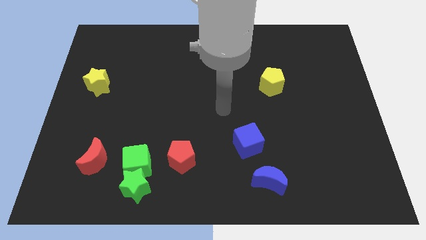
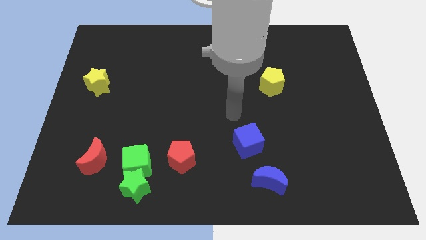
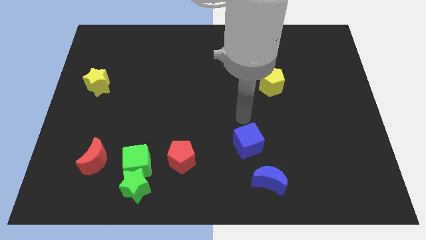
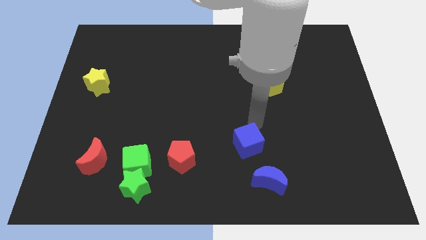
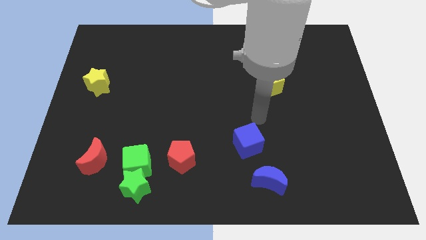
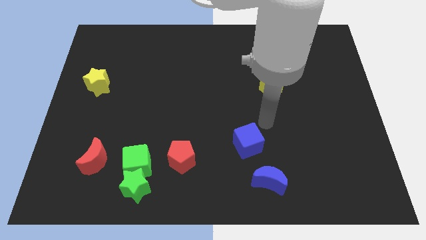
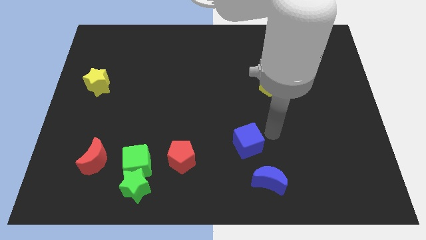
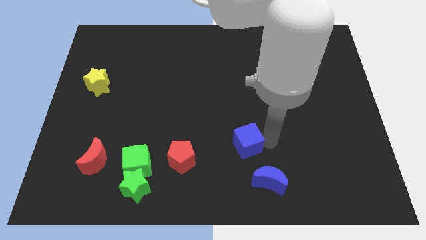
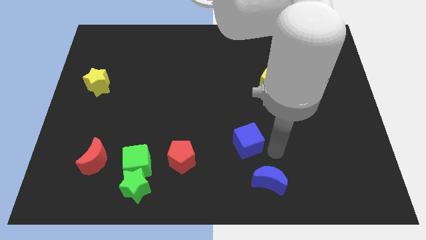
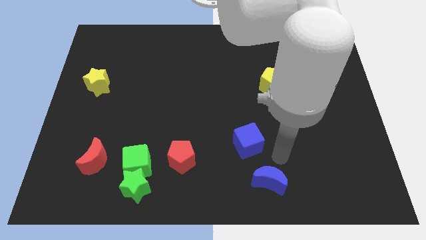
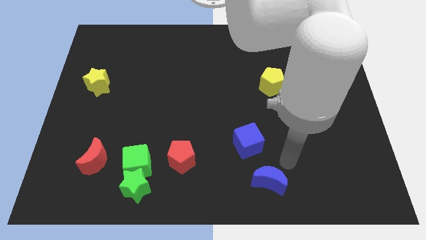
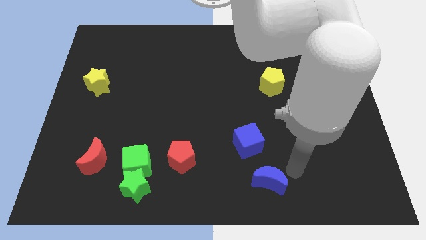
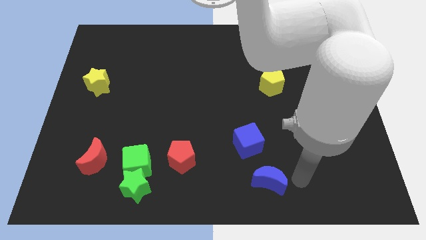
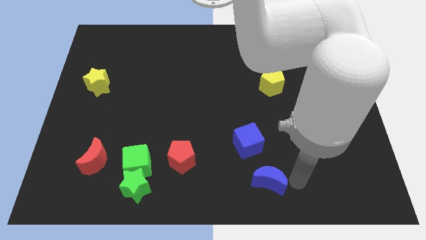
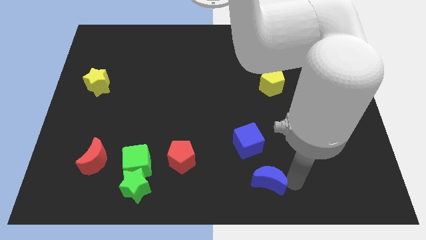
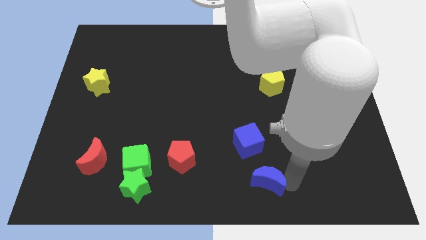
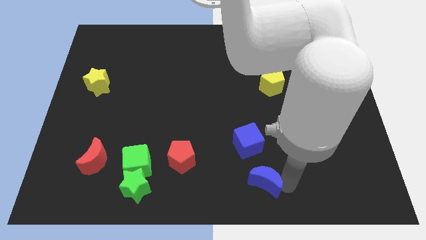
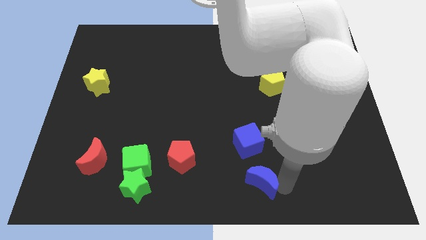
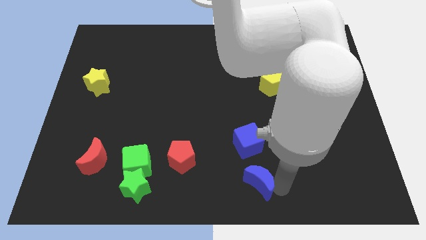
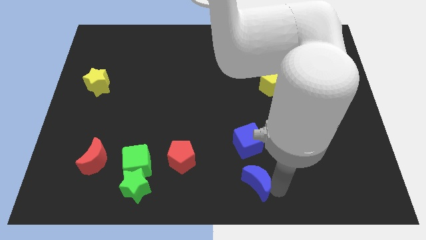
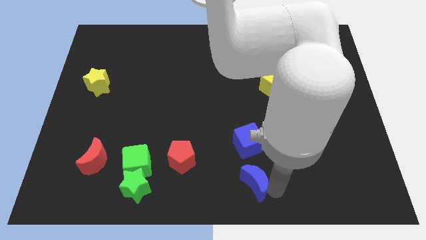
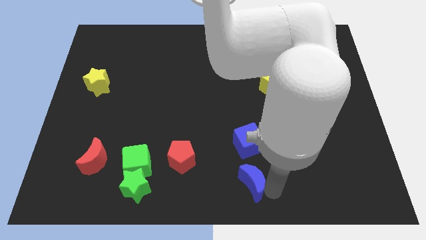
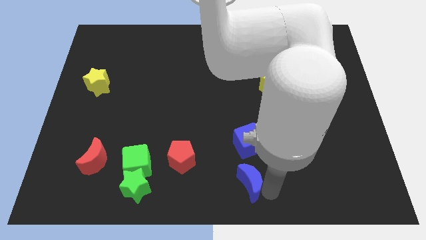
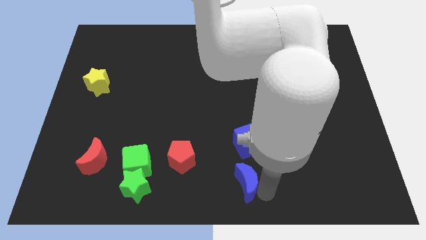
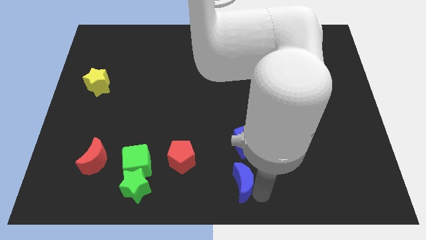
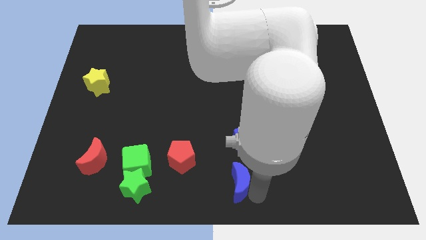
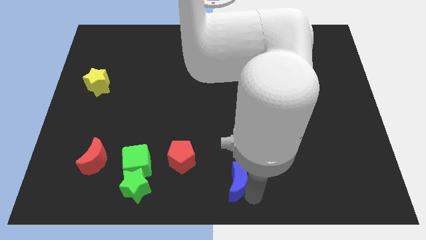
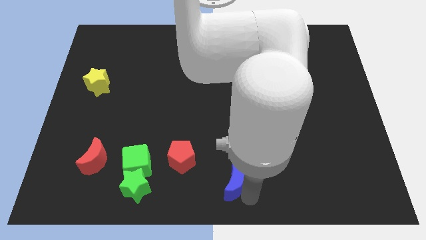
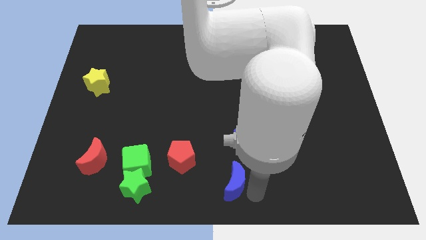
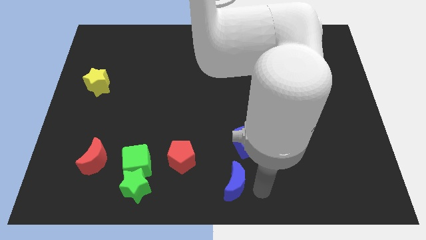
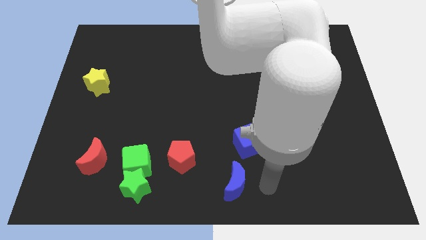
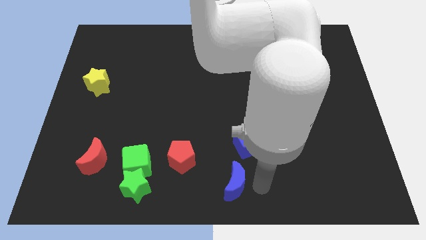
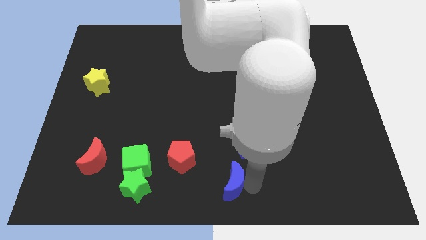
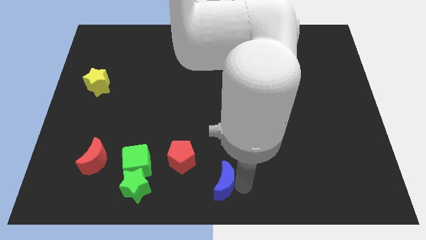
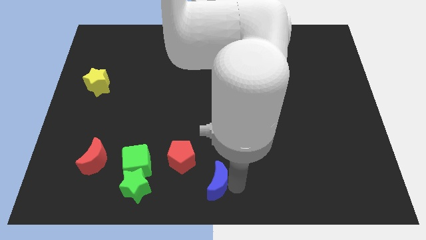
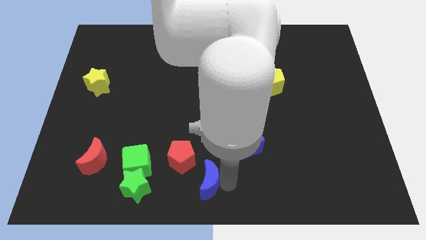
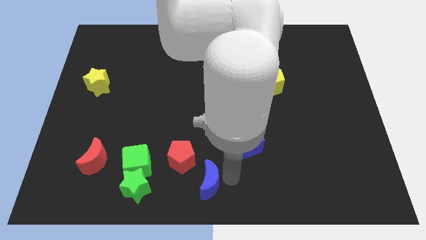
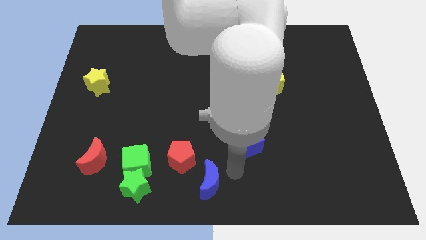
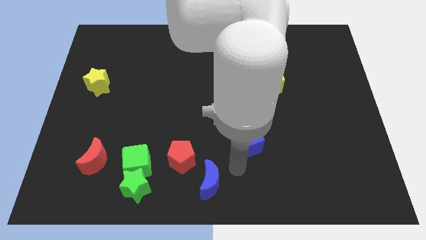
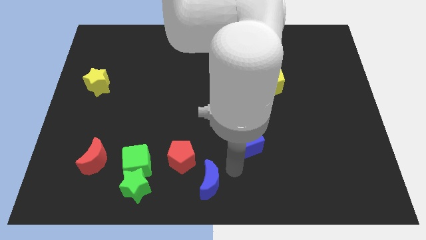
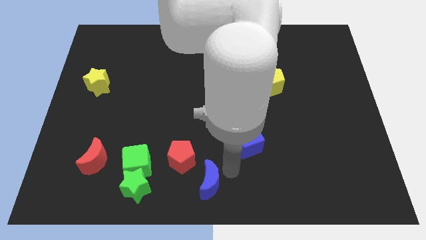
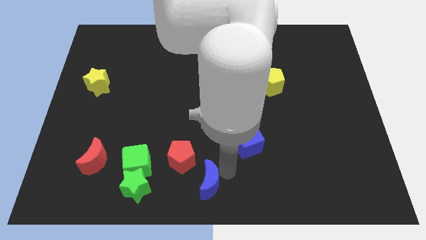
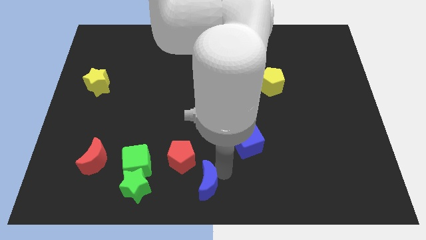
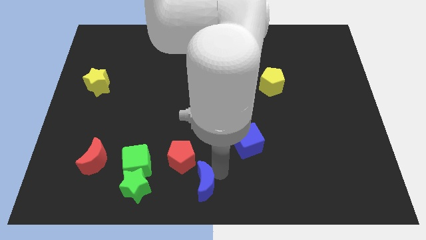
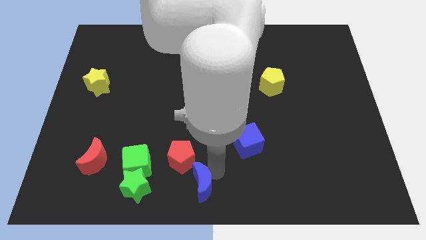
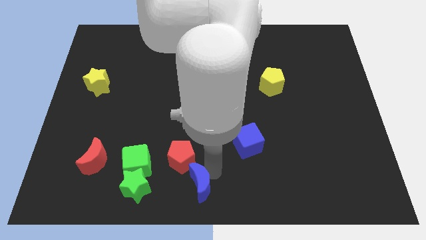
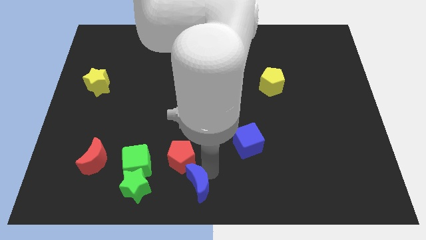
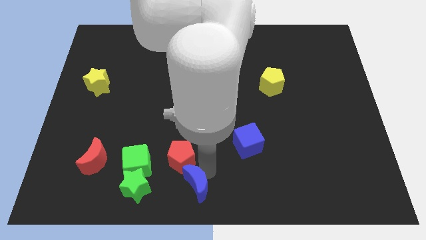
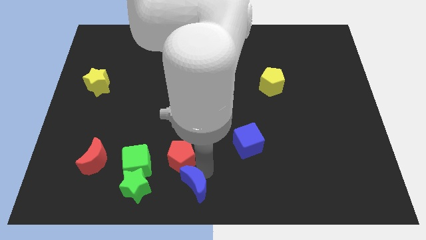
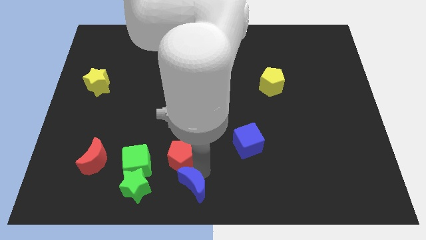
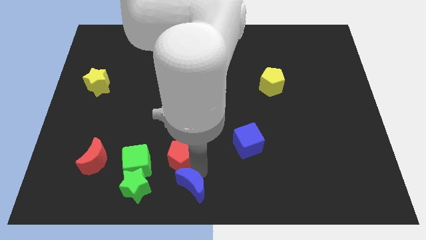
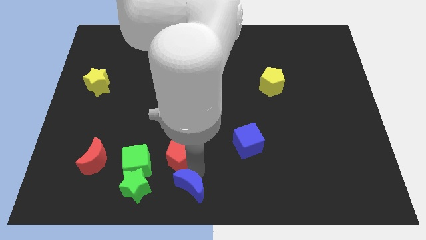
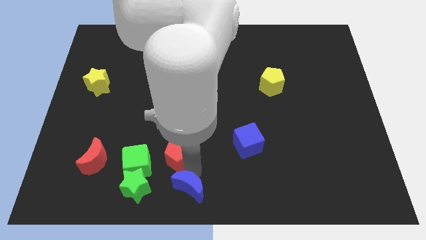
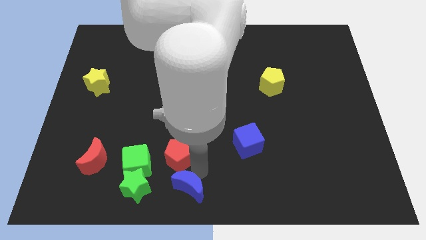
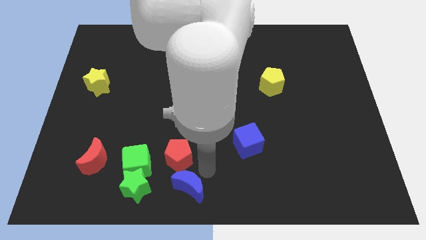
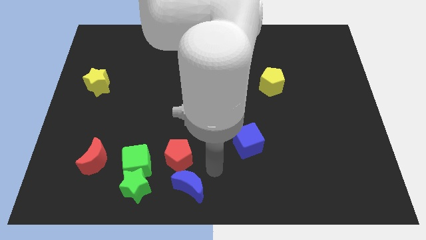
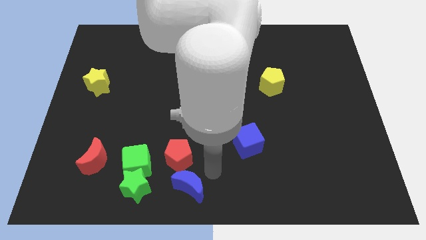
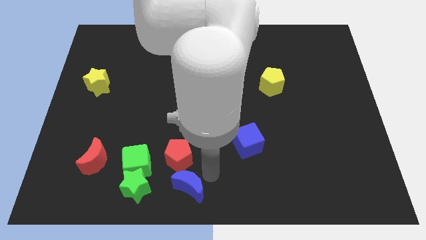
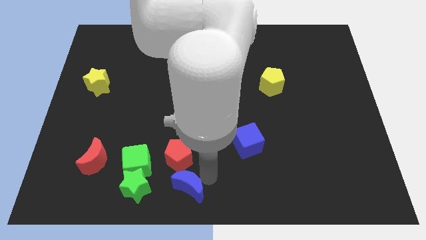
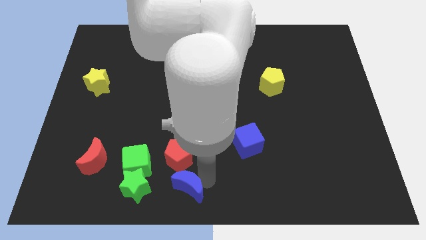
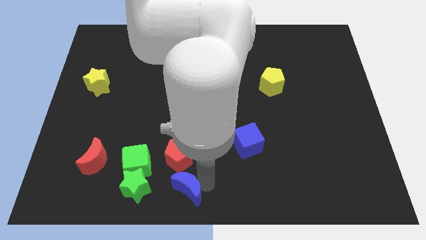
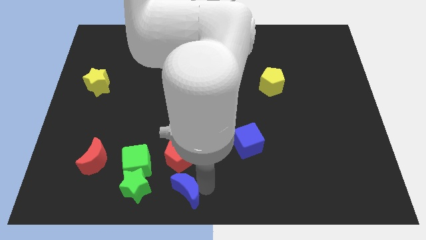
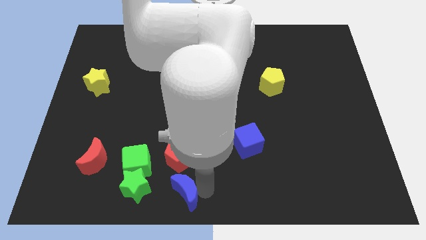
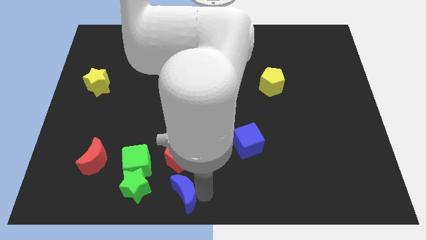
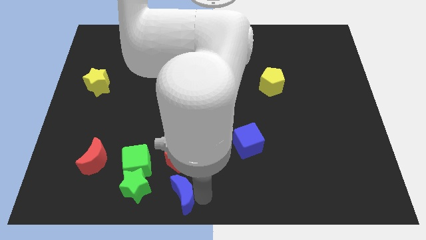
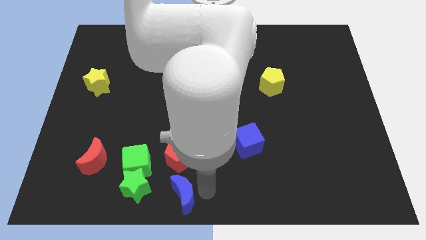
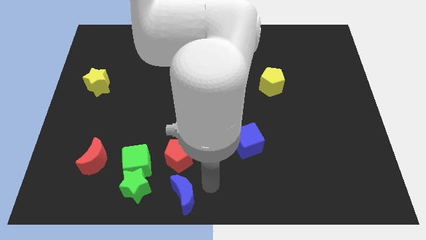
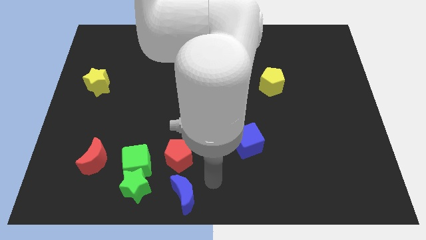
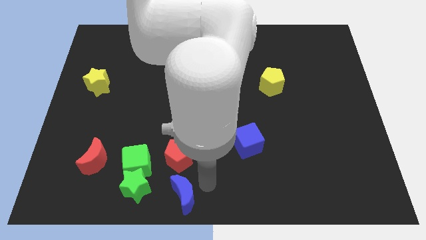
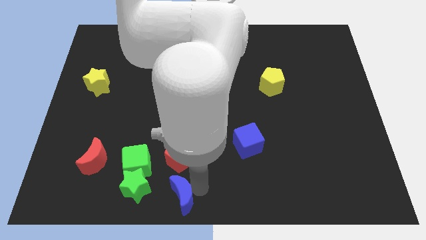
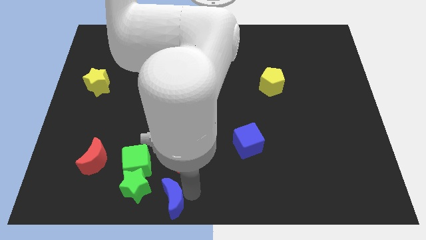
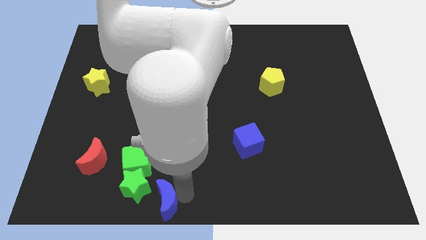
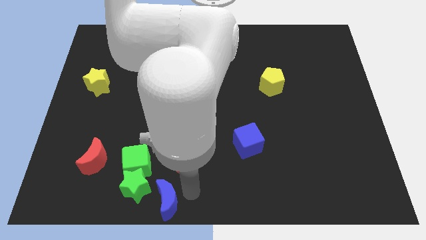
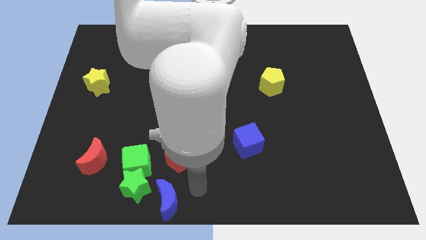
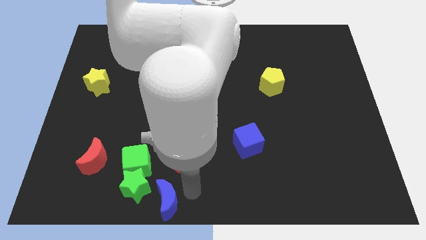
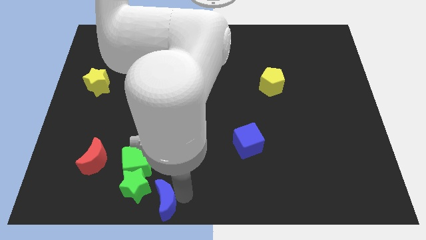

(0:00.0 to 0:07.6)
slide the blue moon to the left

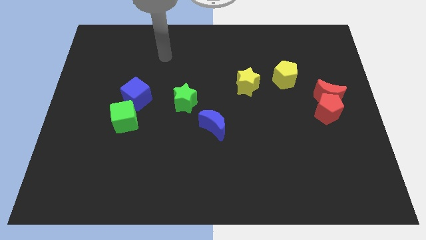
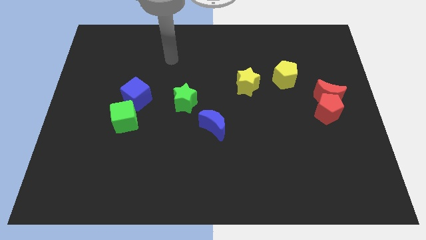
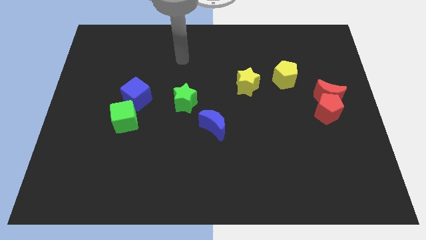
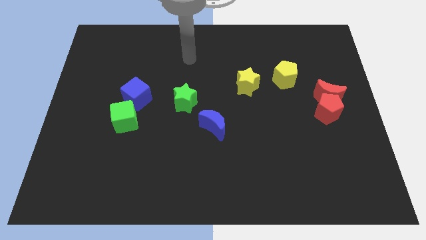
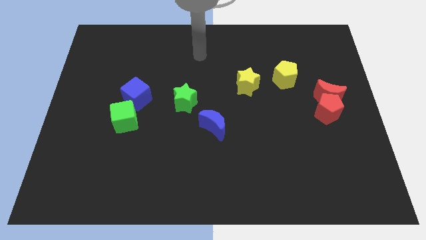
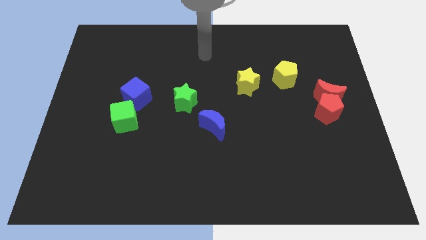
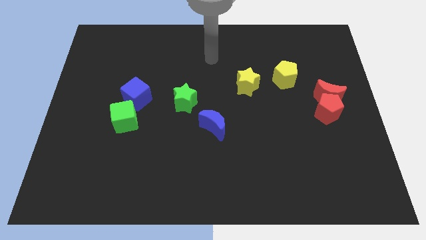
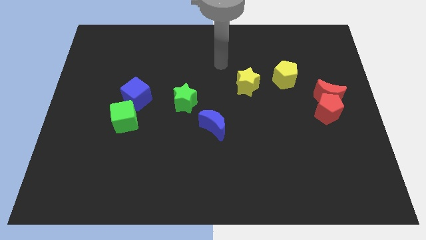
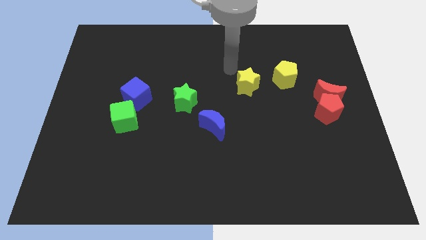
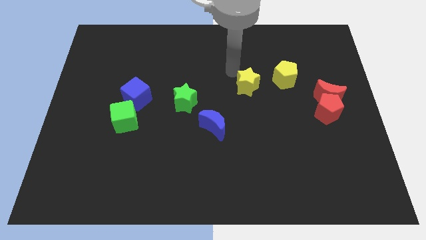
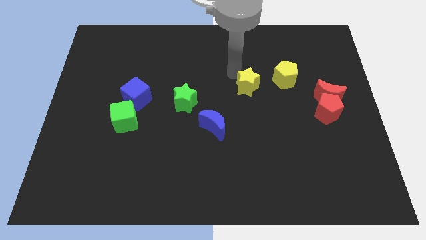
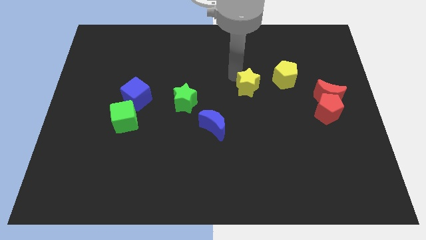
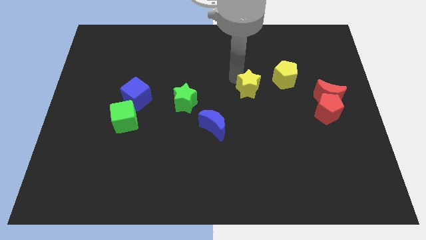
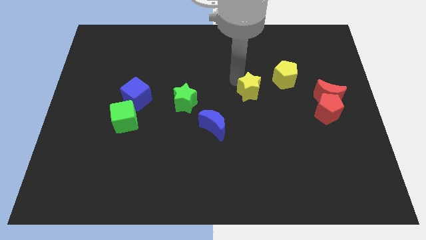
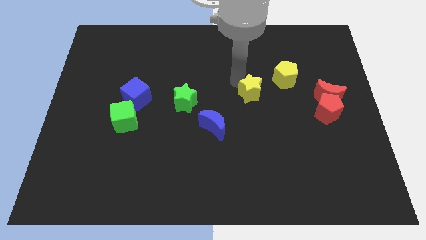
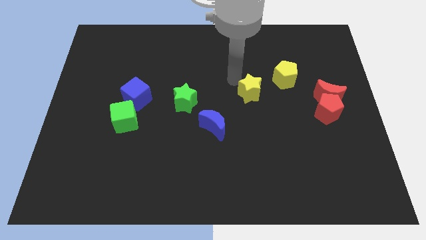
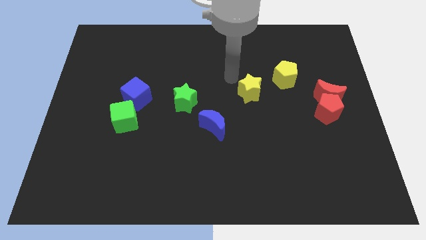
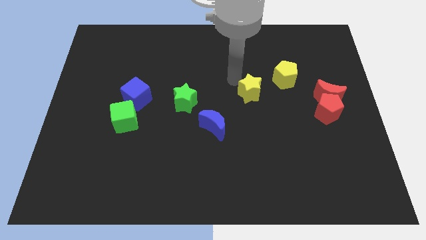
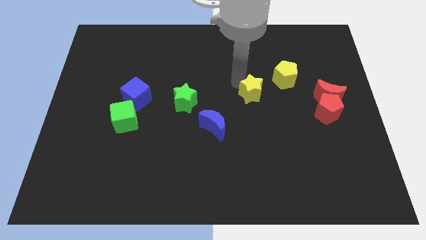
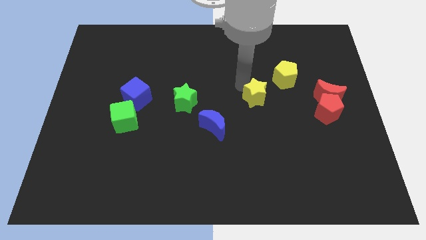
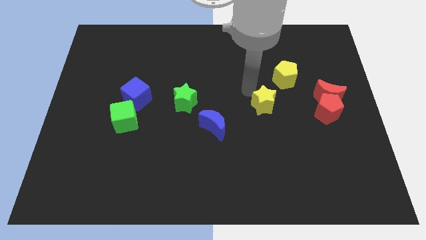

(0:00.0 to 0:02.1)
slightly push the yellow star diagonally downwards and right
